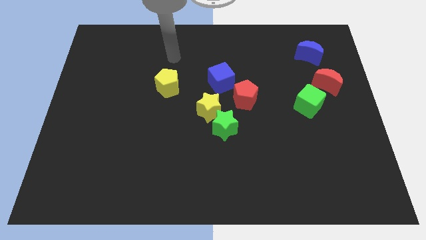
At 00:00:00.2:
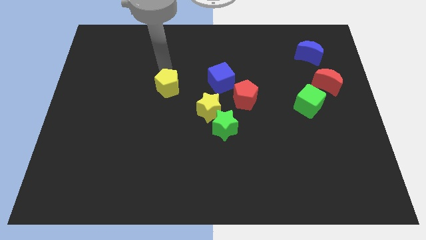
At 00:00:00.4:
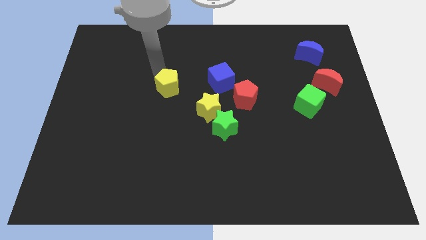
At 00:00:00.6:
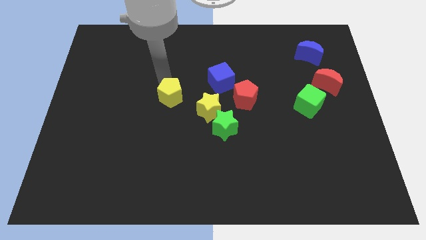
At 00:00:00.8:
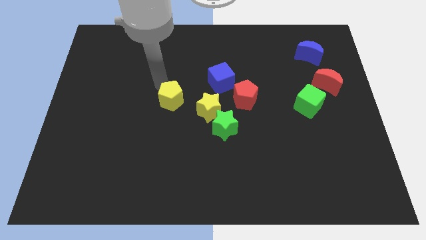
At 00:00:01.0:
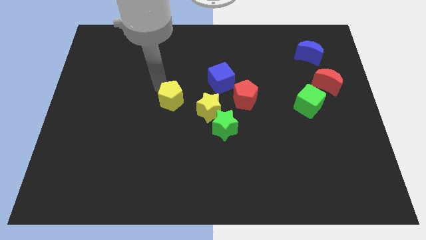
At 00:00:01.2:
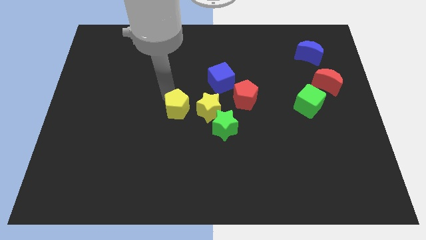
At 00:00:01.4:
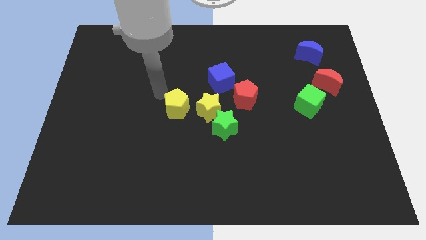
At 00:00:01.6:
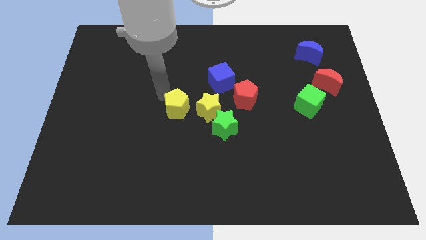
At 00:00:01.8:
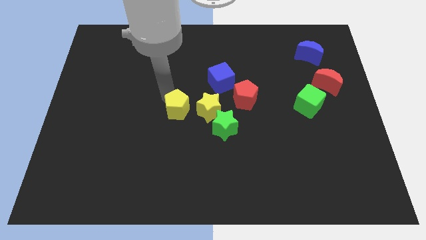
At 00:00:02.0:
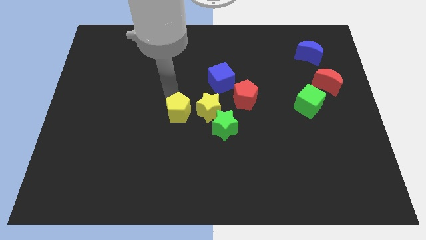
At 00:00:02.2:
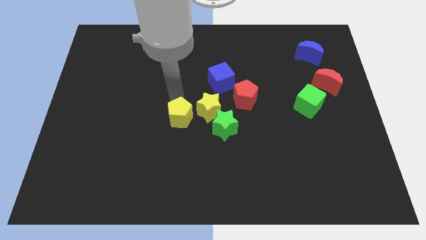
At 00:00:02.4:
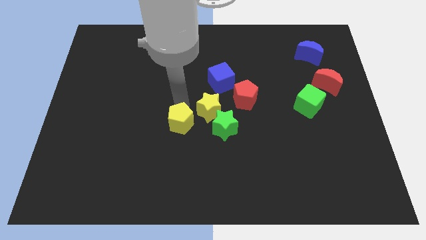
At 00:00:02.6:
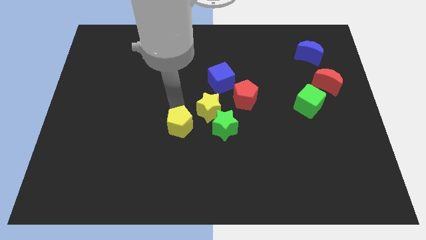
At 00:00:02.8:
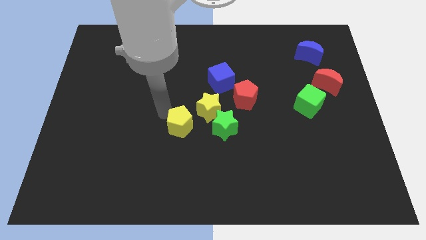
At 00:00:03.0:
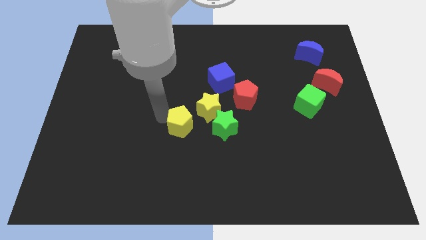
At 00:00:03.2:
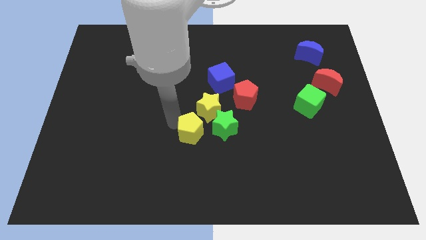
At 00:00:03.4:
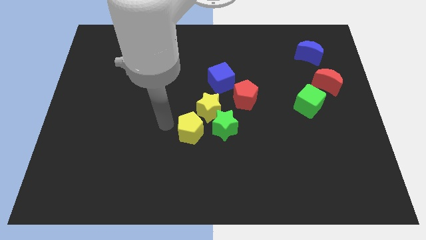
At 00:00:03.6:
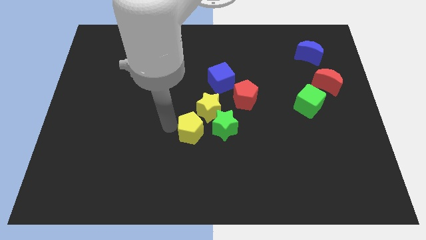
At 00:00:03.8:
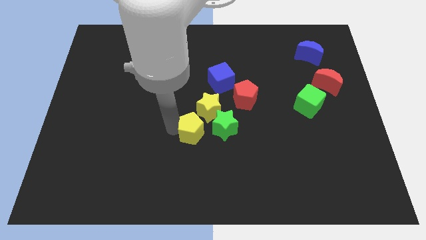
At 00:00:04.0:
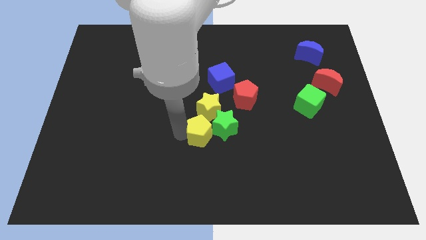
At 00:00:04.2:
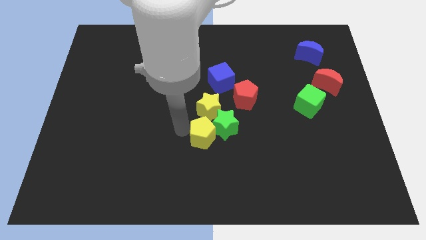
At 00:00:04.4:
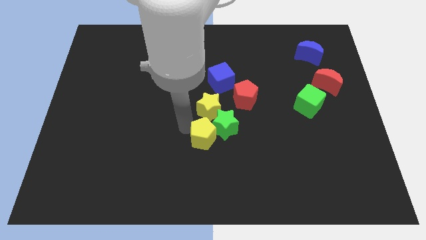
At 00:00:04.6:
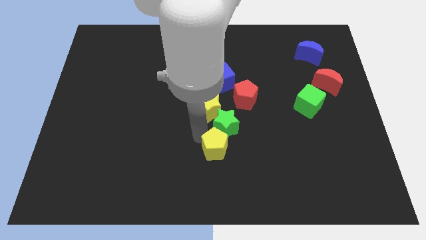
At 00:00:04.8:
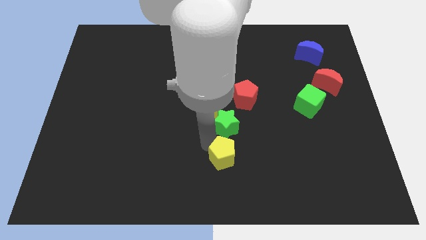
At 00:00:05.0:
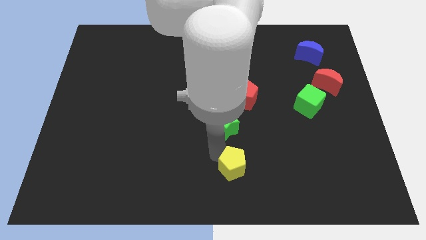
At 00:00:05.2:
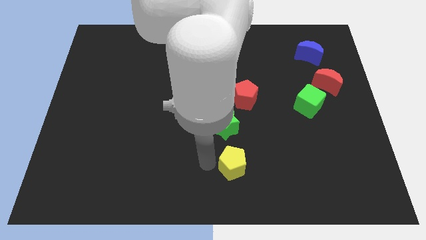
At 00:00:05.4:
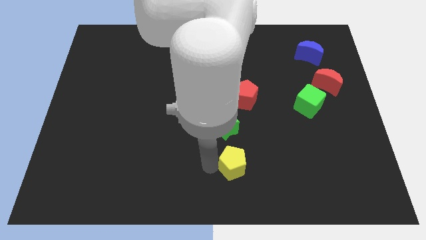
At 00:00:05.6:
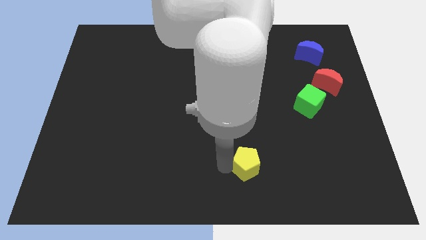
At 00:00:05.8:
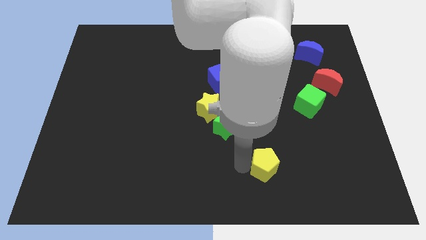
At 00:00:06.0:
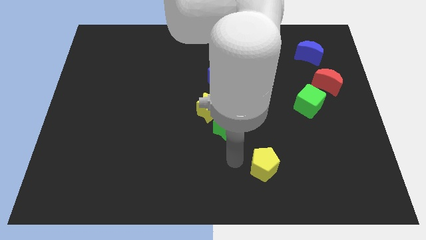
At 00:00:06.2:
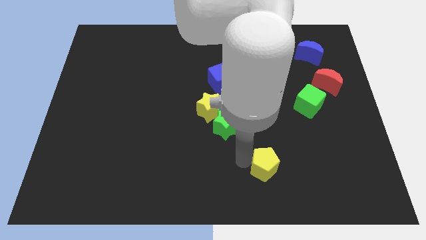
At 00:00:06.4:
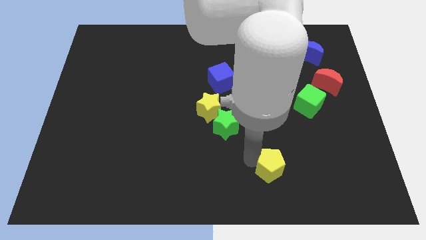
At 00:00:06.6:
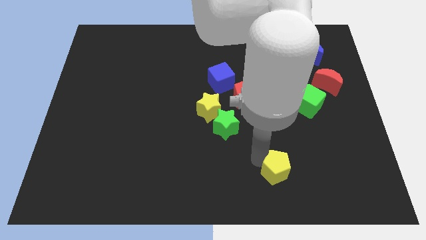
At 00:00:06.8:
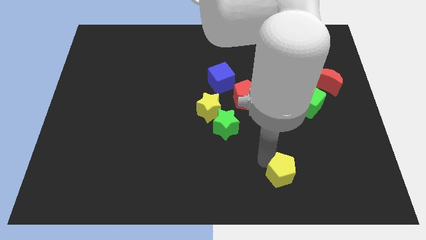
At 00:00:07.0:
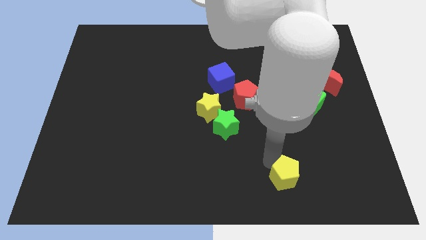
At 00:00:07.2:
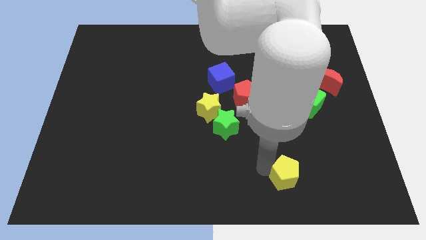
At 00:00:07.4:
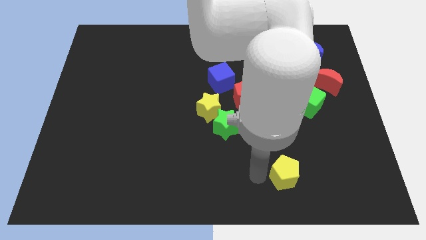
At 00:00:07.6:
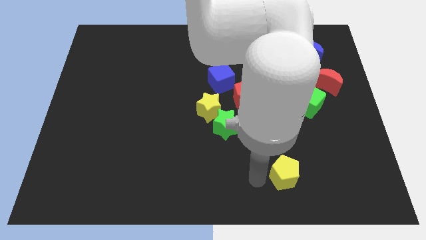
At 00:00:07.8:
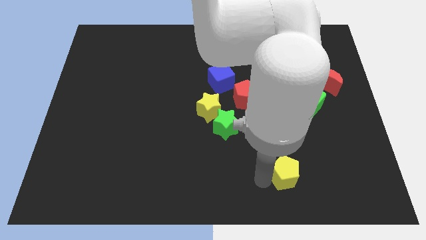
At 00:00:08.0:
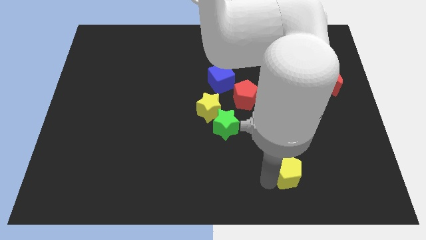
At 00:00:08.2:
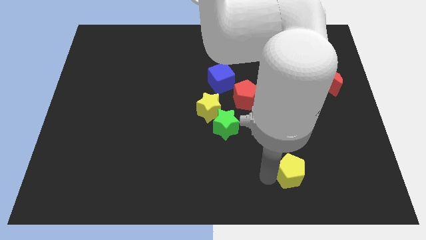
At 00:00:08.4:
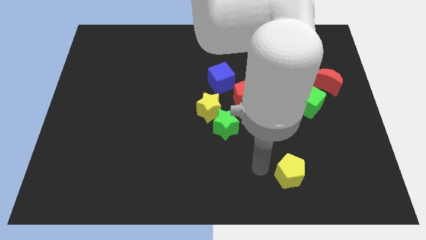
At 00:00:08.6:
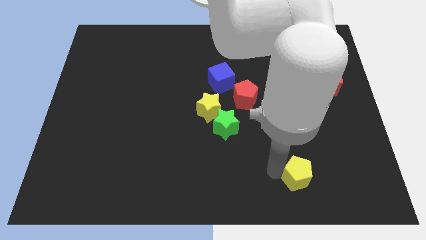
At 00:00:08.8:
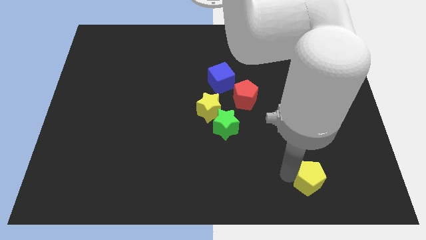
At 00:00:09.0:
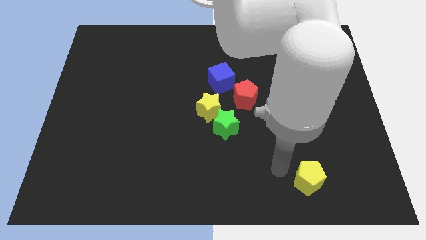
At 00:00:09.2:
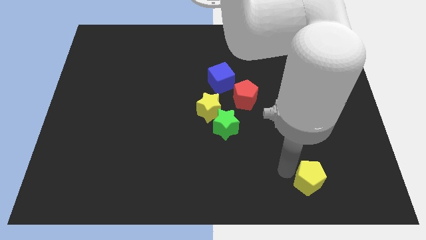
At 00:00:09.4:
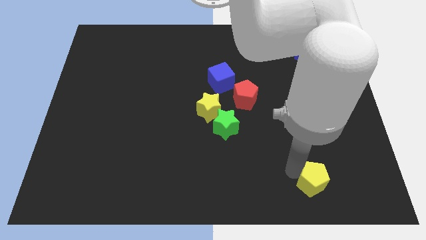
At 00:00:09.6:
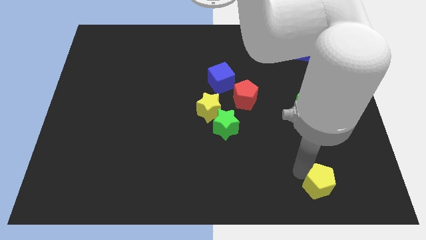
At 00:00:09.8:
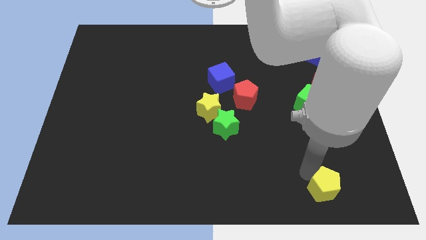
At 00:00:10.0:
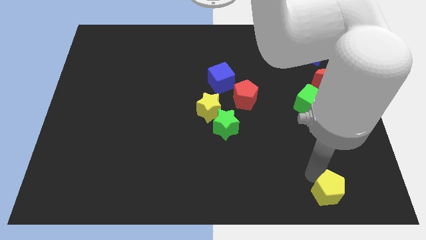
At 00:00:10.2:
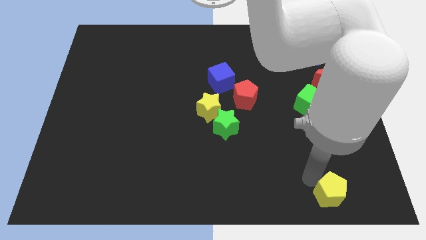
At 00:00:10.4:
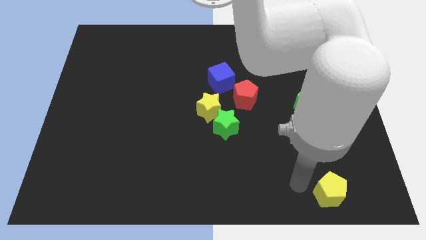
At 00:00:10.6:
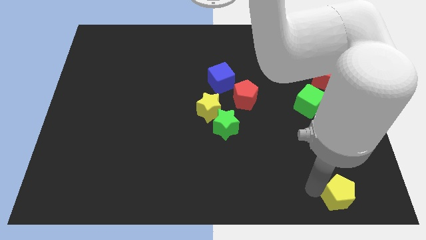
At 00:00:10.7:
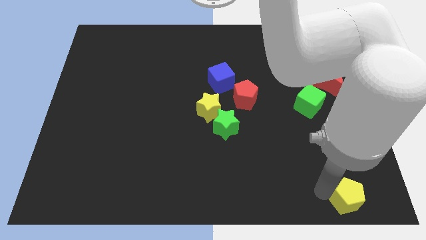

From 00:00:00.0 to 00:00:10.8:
put the yellow pentagon to the bottom right of the board

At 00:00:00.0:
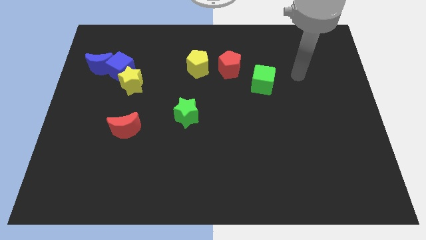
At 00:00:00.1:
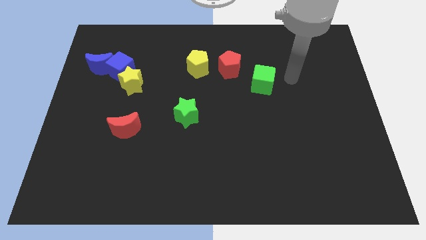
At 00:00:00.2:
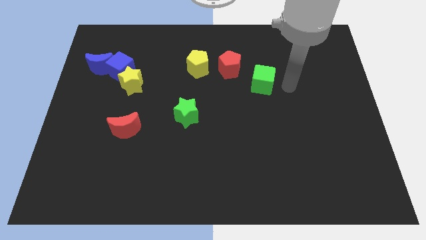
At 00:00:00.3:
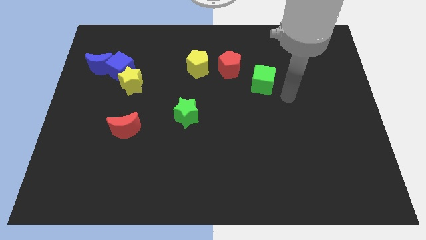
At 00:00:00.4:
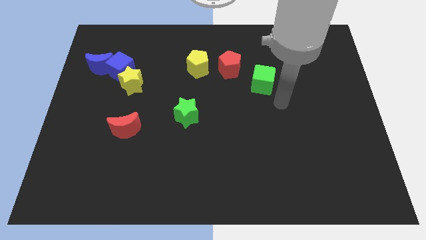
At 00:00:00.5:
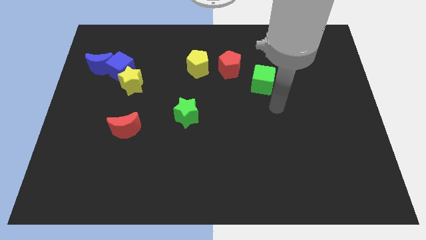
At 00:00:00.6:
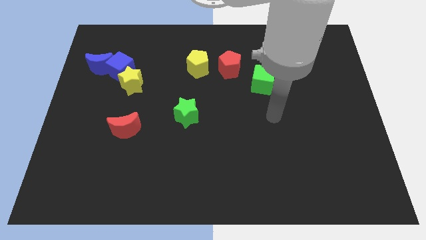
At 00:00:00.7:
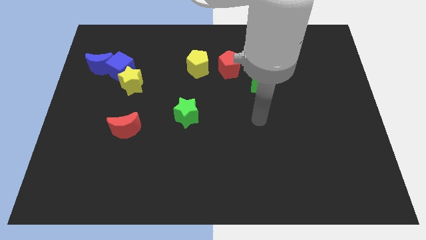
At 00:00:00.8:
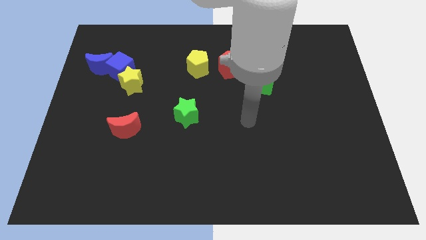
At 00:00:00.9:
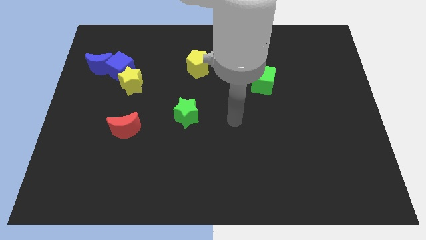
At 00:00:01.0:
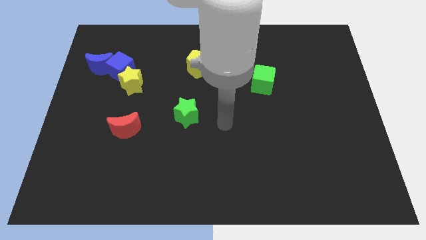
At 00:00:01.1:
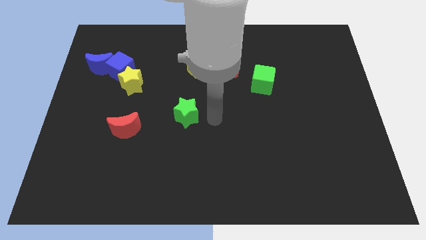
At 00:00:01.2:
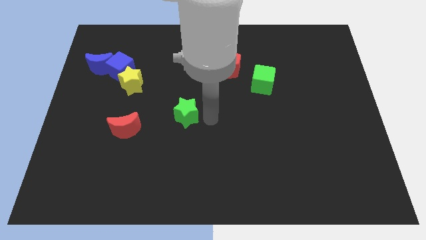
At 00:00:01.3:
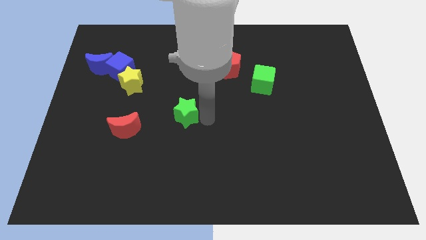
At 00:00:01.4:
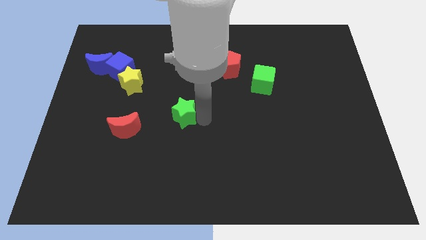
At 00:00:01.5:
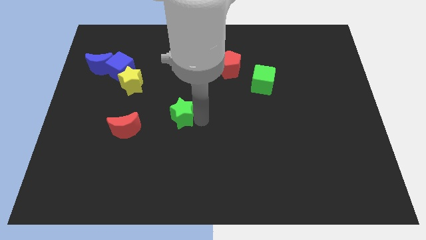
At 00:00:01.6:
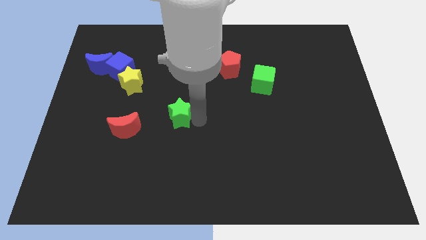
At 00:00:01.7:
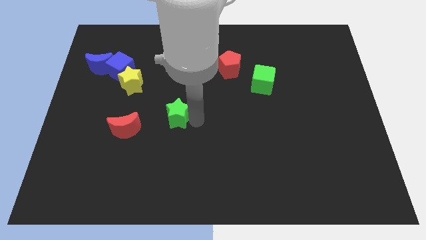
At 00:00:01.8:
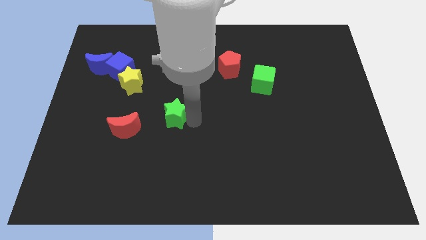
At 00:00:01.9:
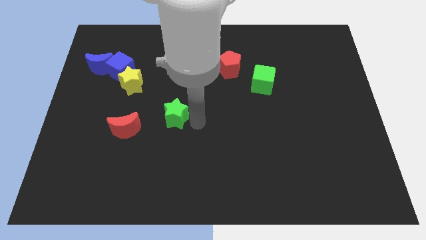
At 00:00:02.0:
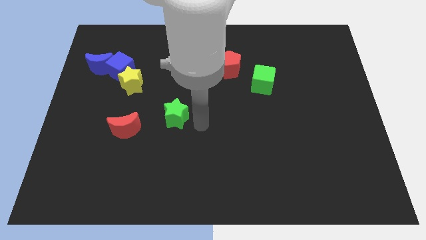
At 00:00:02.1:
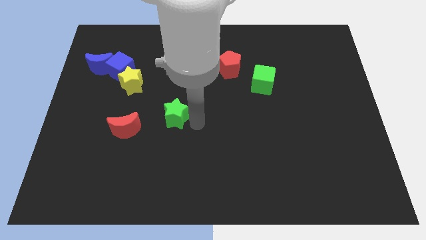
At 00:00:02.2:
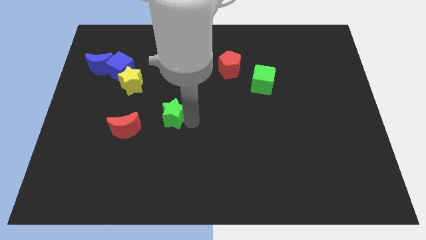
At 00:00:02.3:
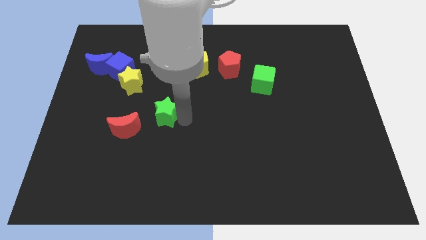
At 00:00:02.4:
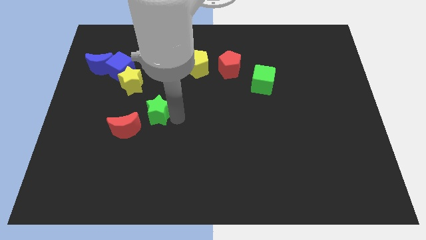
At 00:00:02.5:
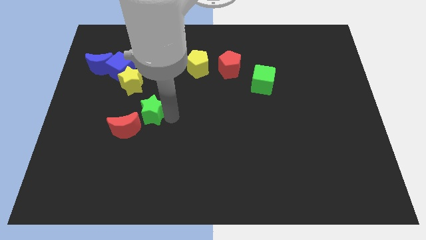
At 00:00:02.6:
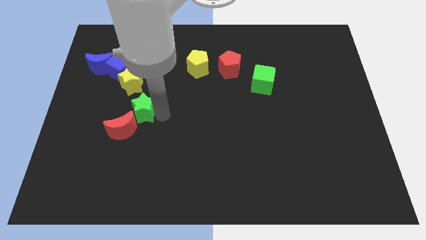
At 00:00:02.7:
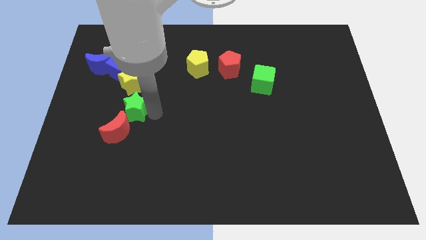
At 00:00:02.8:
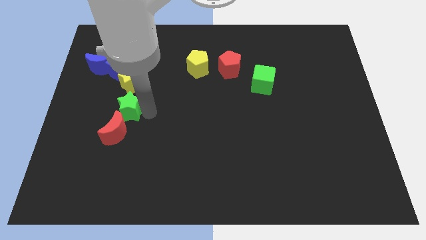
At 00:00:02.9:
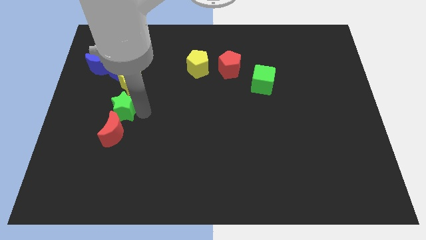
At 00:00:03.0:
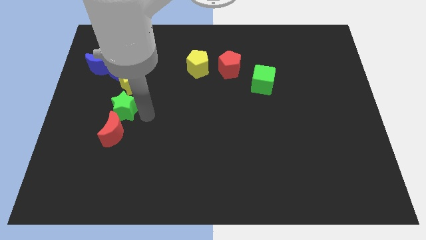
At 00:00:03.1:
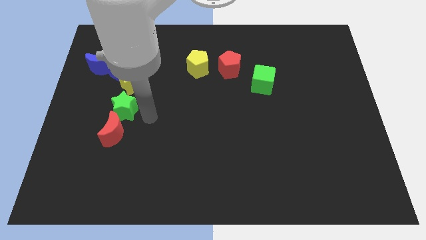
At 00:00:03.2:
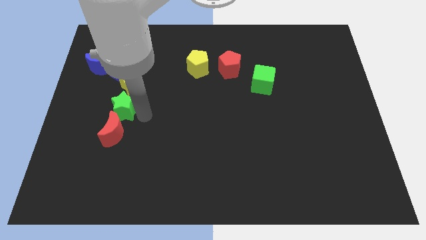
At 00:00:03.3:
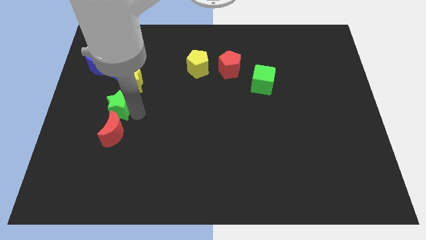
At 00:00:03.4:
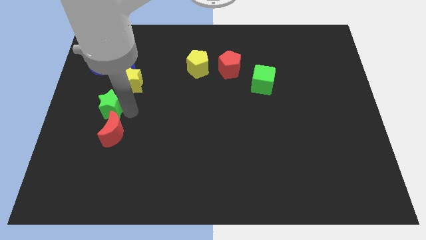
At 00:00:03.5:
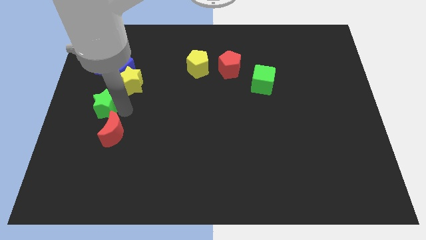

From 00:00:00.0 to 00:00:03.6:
put the green star to the left side
